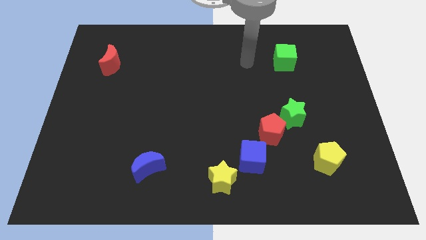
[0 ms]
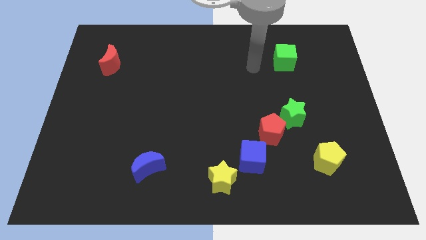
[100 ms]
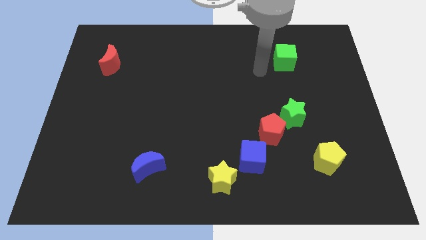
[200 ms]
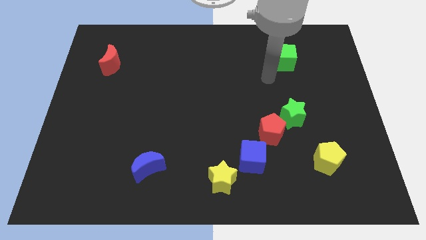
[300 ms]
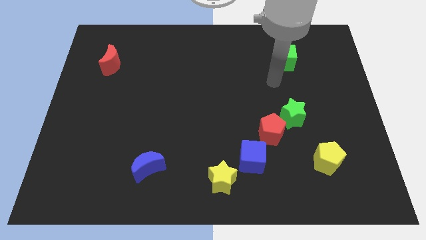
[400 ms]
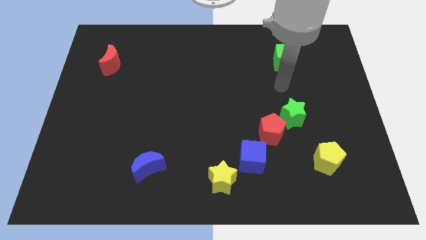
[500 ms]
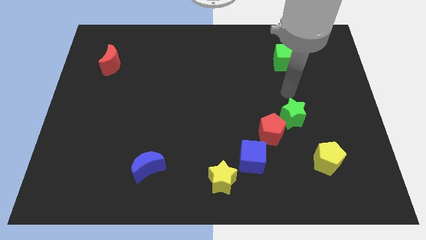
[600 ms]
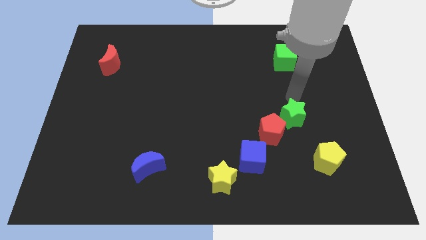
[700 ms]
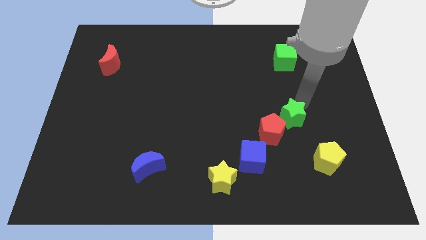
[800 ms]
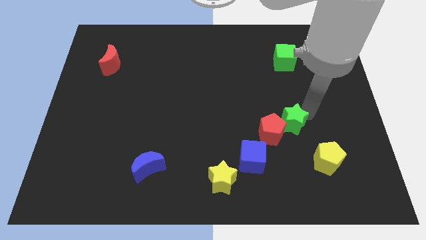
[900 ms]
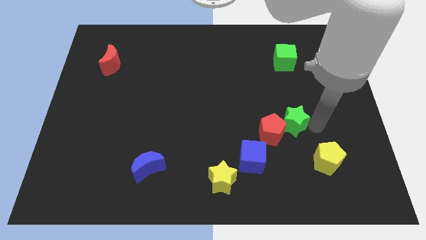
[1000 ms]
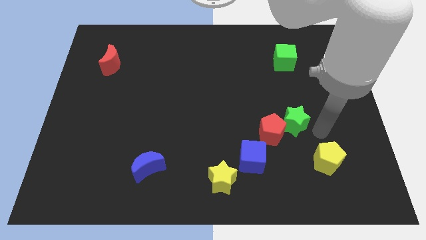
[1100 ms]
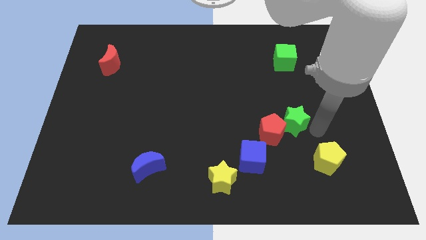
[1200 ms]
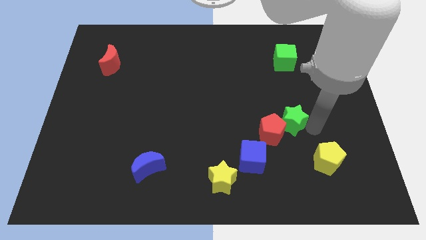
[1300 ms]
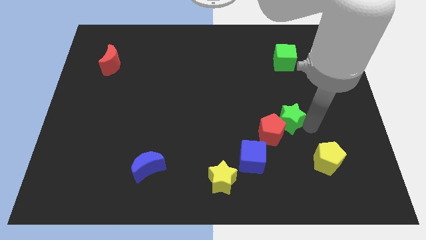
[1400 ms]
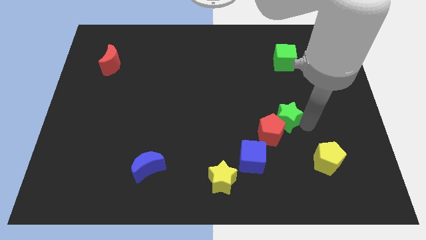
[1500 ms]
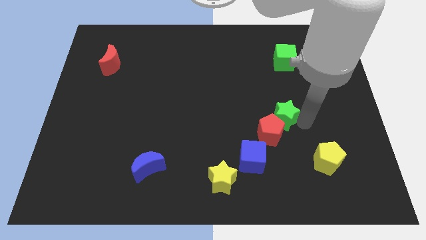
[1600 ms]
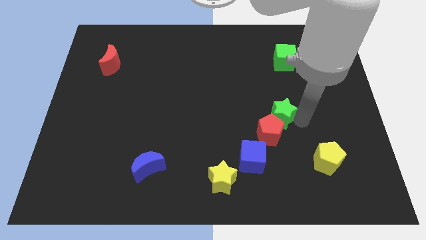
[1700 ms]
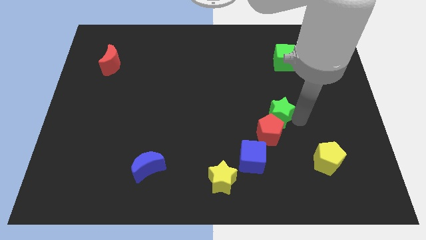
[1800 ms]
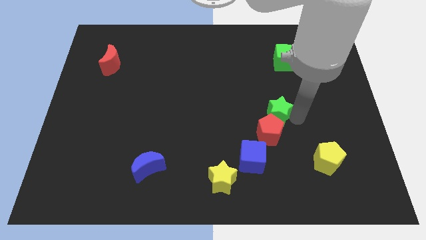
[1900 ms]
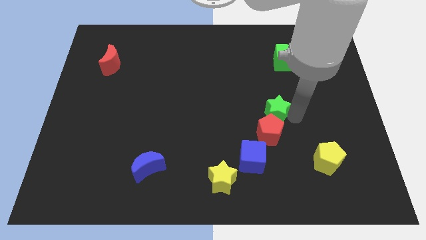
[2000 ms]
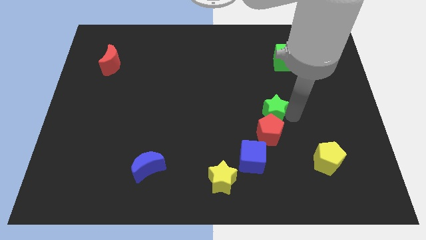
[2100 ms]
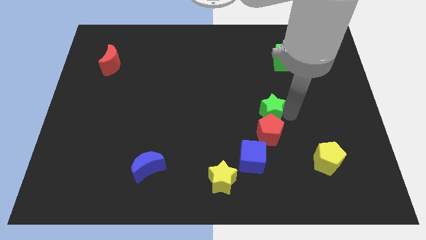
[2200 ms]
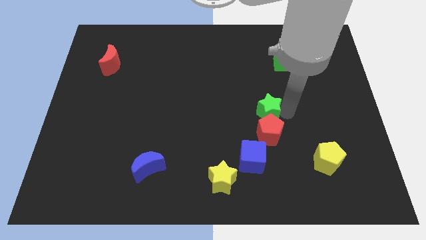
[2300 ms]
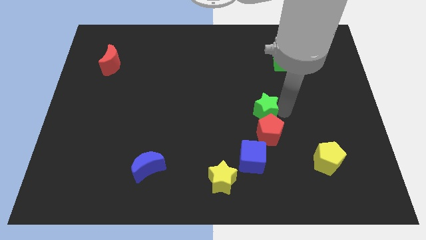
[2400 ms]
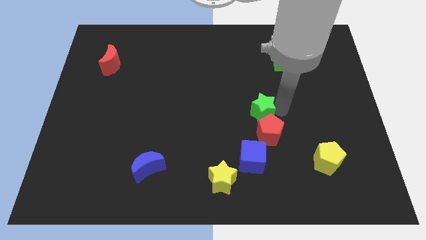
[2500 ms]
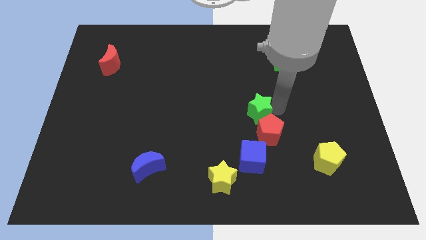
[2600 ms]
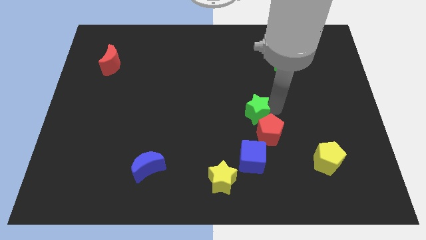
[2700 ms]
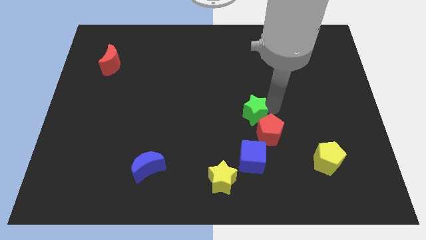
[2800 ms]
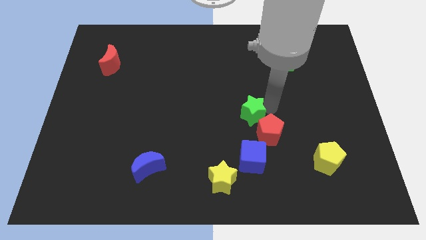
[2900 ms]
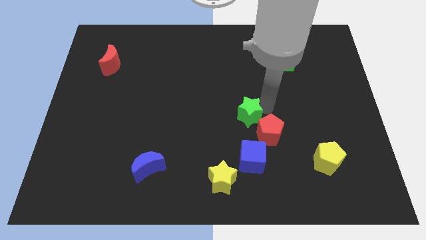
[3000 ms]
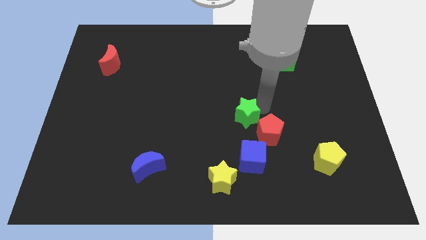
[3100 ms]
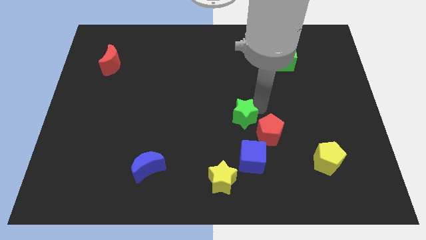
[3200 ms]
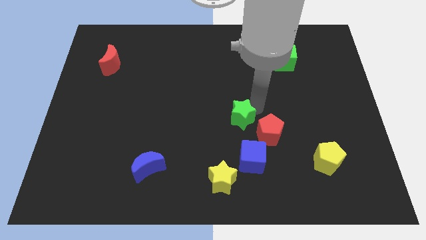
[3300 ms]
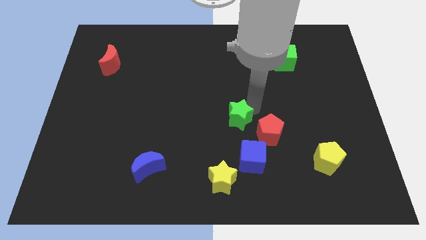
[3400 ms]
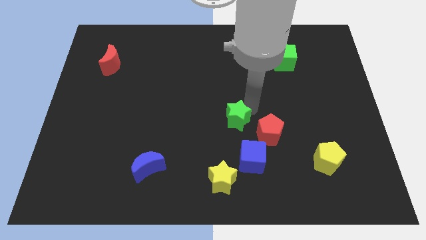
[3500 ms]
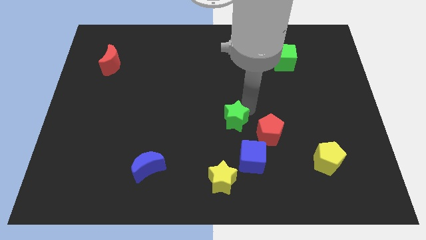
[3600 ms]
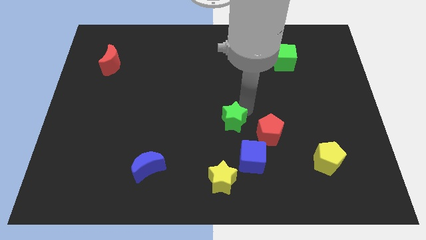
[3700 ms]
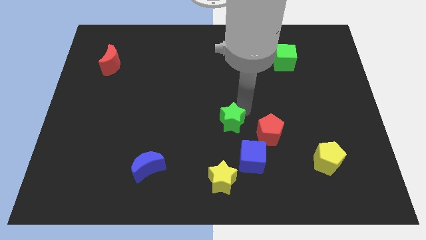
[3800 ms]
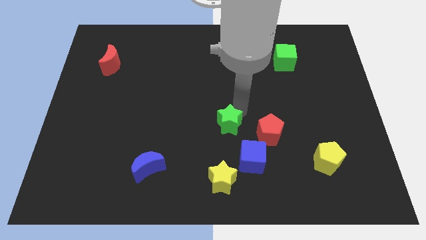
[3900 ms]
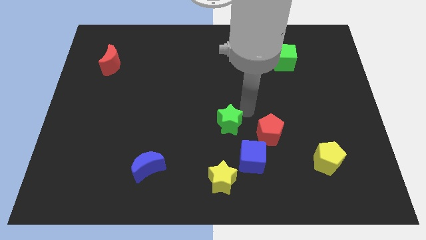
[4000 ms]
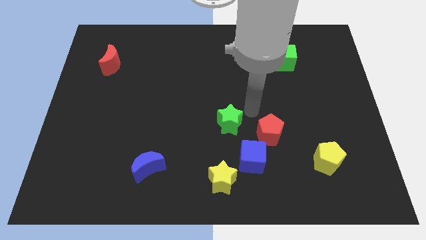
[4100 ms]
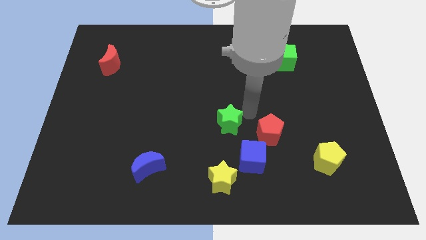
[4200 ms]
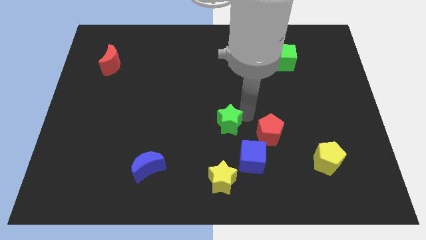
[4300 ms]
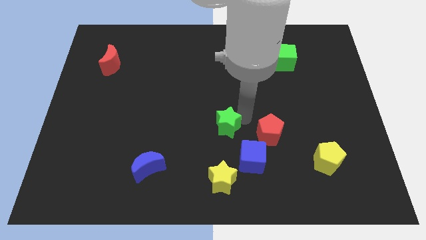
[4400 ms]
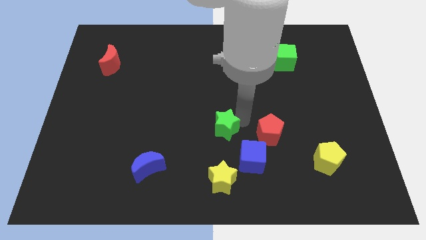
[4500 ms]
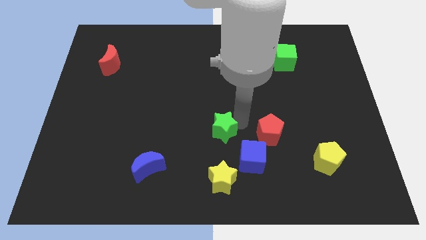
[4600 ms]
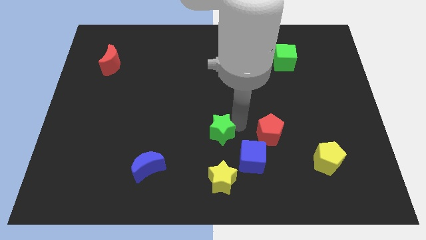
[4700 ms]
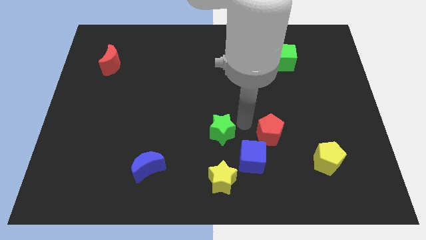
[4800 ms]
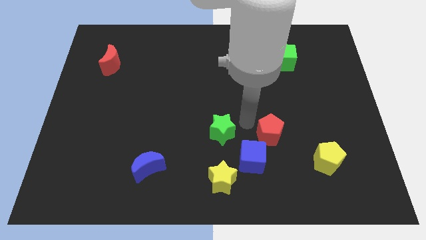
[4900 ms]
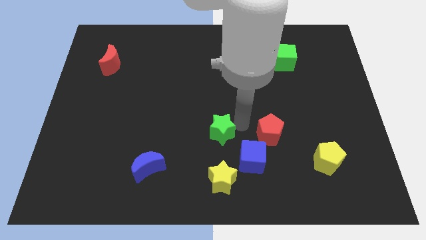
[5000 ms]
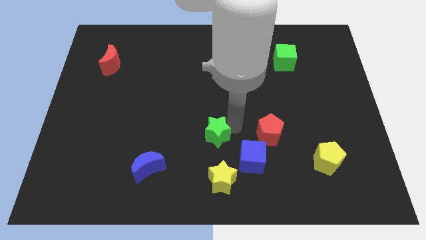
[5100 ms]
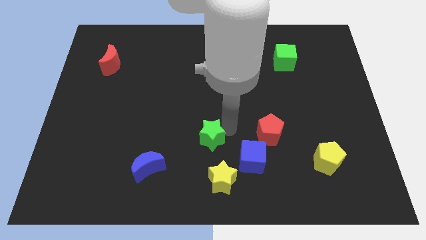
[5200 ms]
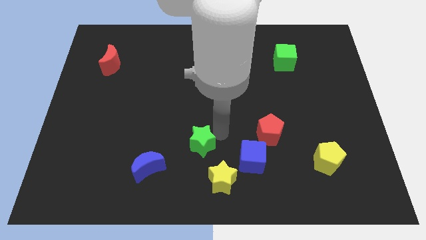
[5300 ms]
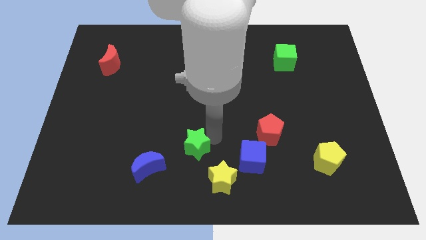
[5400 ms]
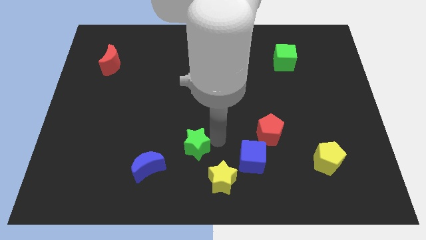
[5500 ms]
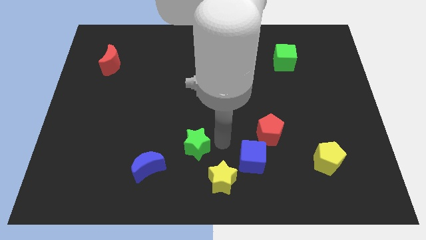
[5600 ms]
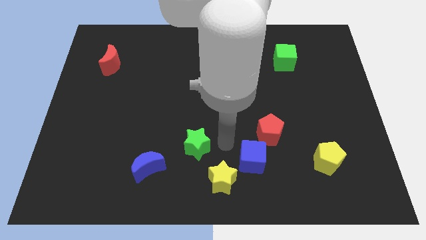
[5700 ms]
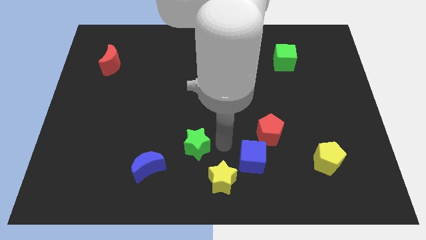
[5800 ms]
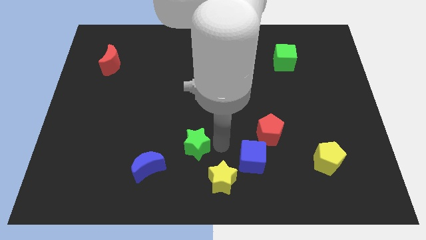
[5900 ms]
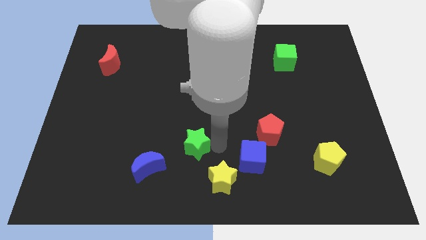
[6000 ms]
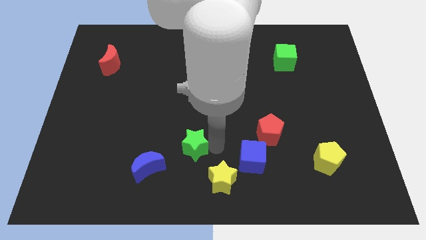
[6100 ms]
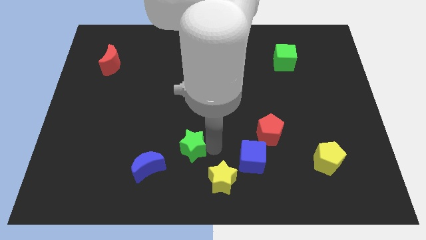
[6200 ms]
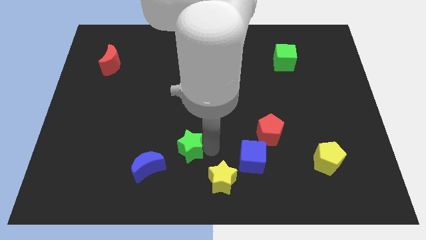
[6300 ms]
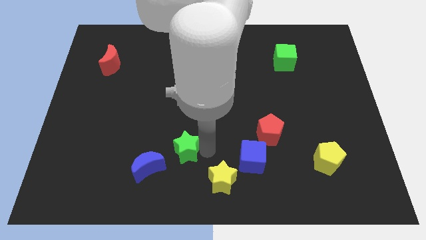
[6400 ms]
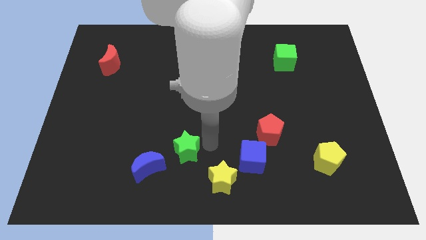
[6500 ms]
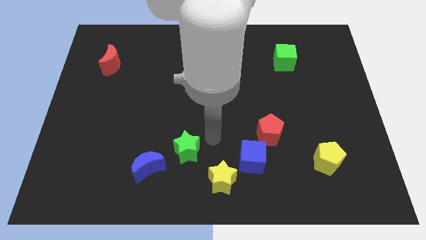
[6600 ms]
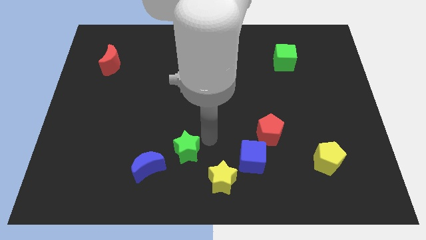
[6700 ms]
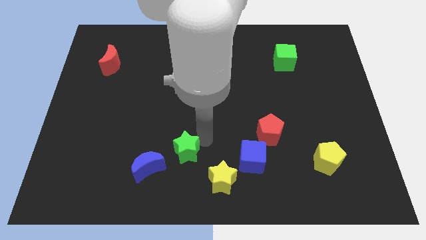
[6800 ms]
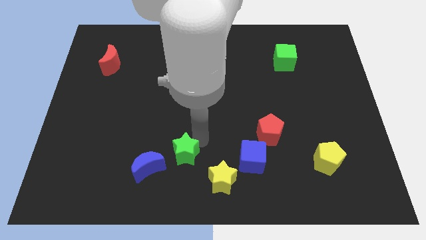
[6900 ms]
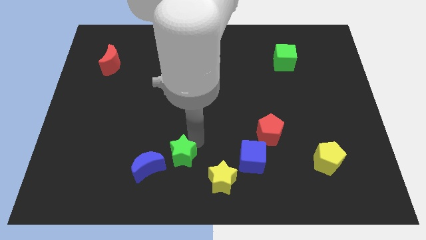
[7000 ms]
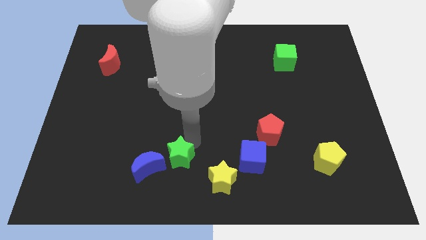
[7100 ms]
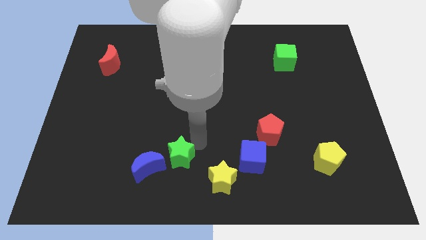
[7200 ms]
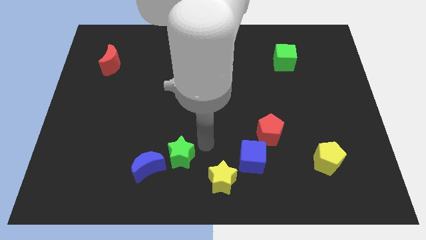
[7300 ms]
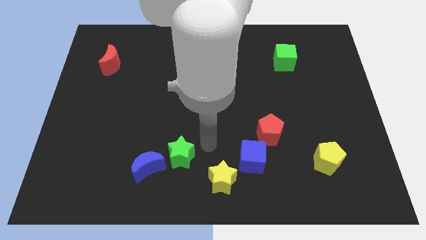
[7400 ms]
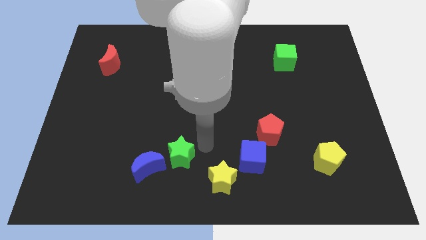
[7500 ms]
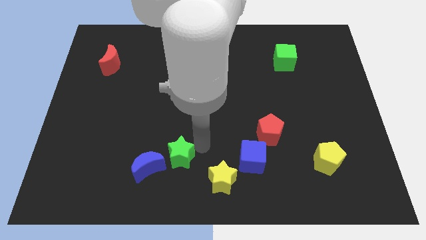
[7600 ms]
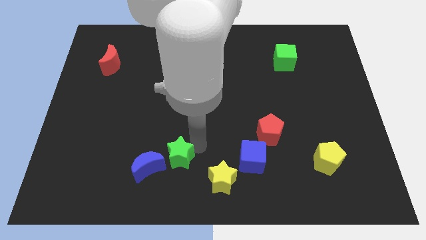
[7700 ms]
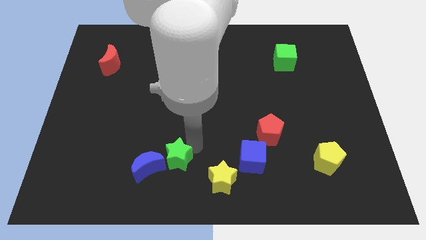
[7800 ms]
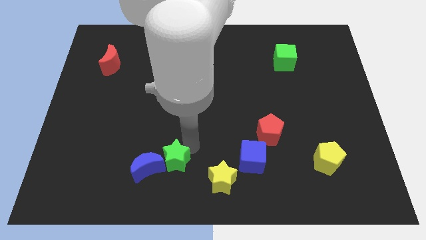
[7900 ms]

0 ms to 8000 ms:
slide the green star towards the blue moon
